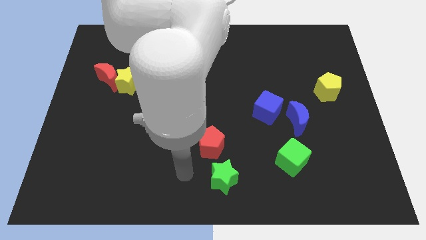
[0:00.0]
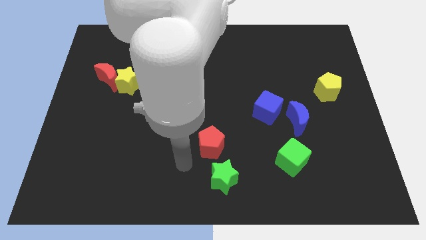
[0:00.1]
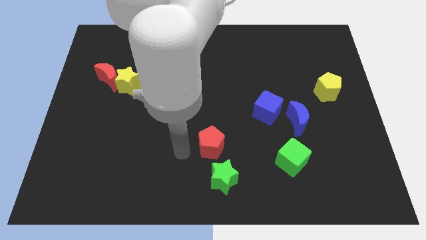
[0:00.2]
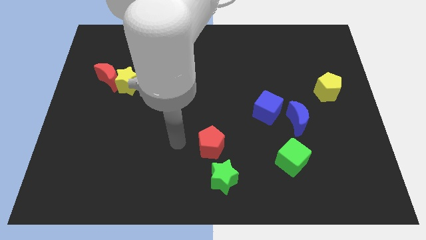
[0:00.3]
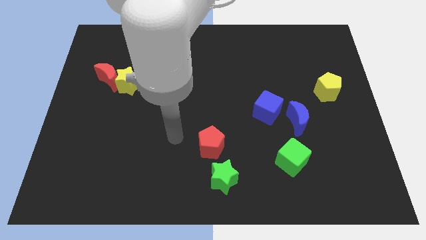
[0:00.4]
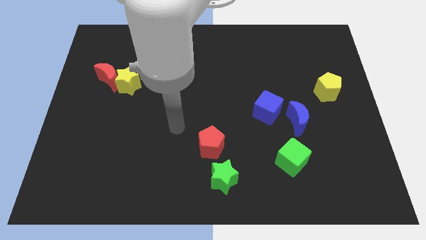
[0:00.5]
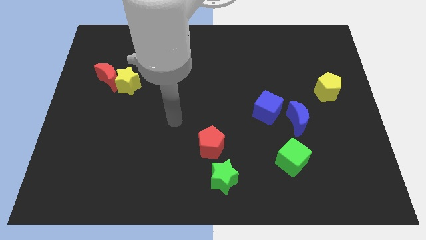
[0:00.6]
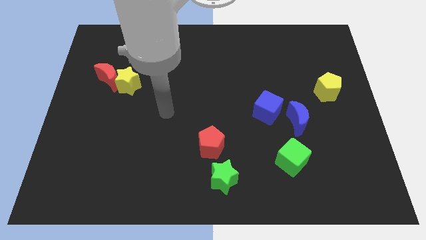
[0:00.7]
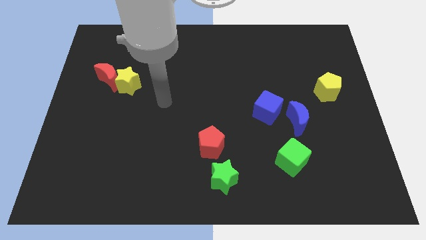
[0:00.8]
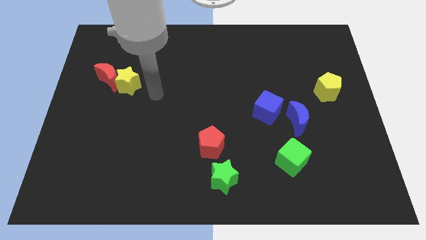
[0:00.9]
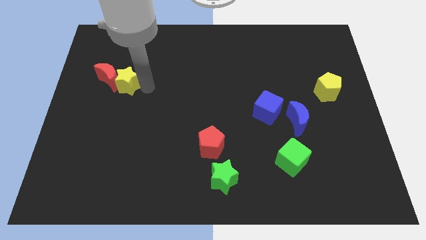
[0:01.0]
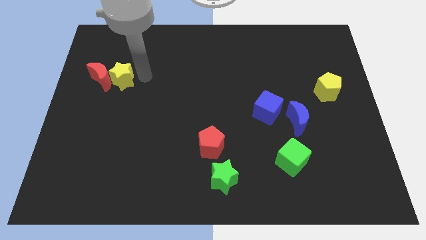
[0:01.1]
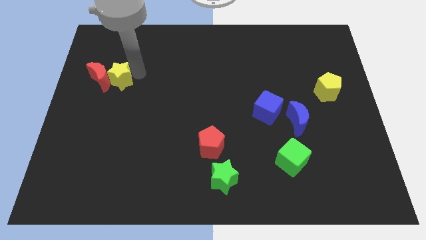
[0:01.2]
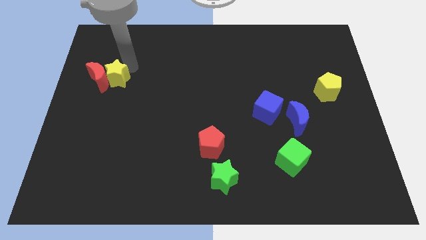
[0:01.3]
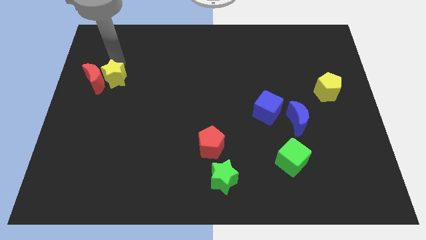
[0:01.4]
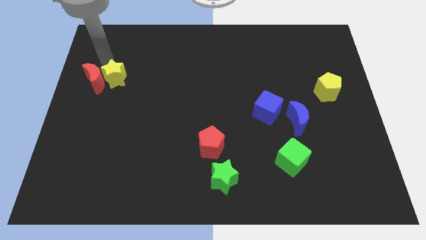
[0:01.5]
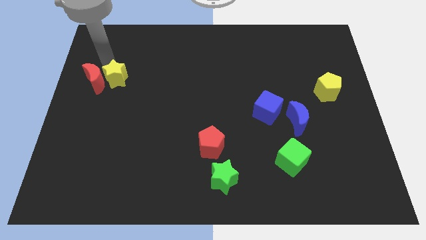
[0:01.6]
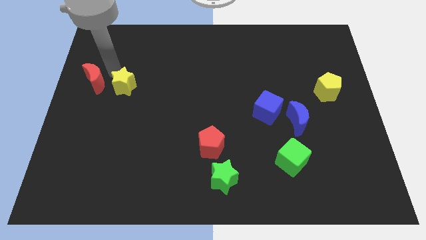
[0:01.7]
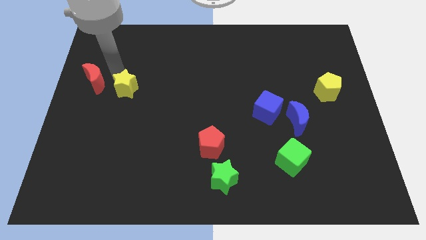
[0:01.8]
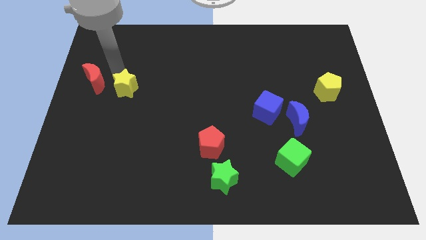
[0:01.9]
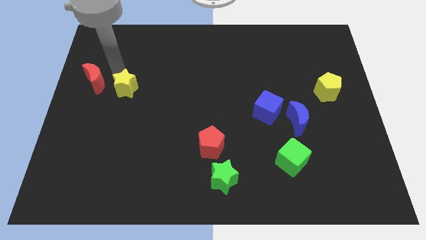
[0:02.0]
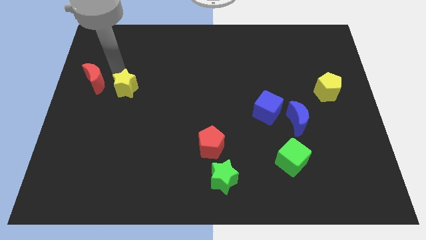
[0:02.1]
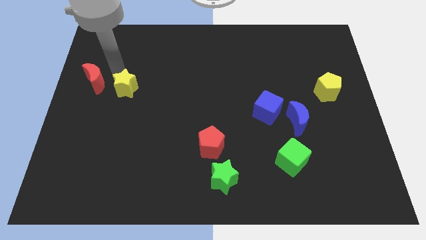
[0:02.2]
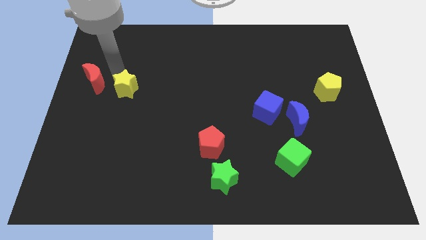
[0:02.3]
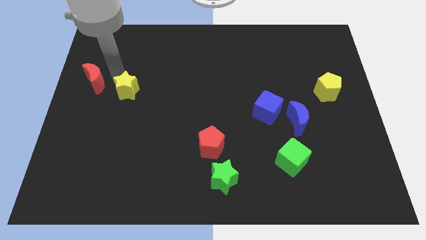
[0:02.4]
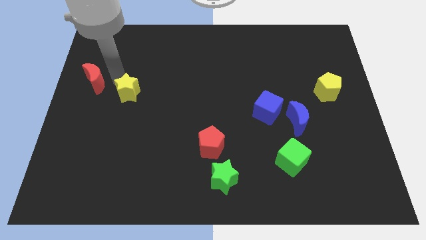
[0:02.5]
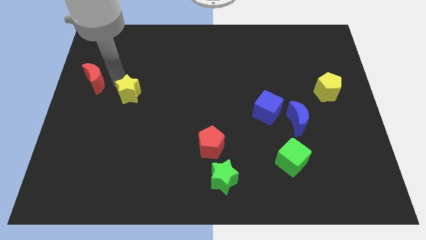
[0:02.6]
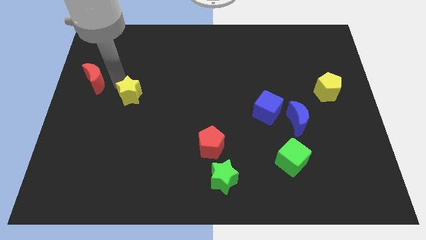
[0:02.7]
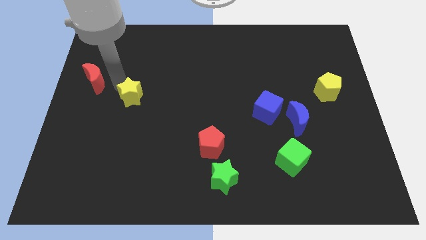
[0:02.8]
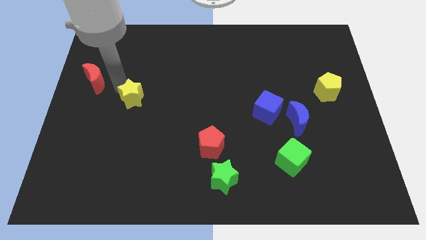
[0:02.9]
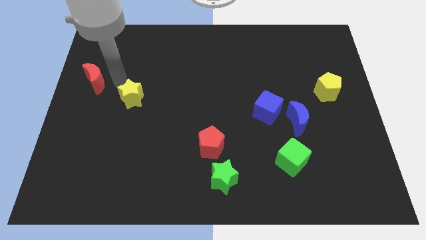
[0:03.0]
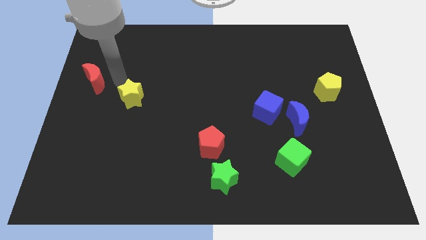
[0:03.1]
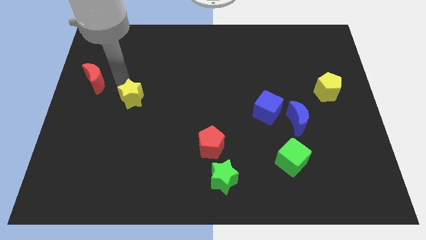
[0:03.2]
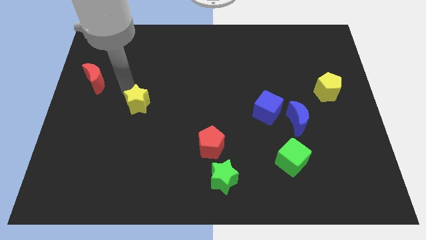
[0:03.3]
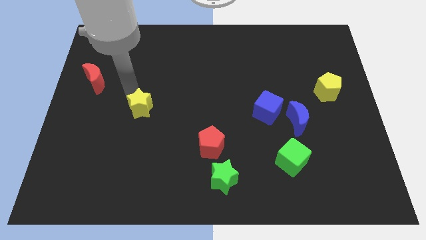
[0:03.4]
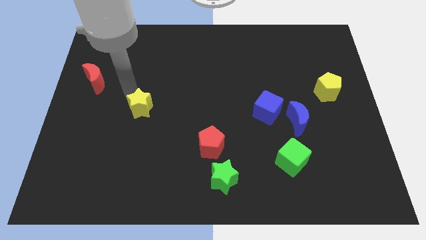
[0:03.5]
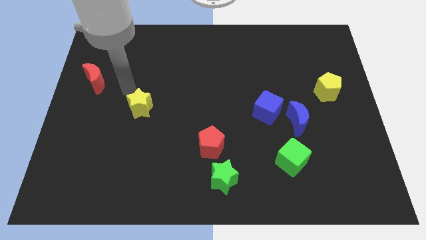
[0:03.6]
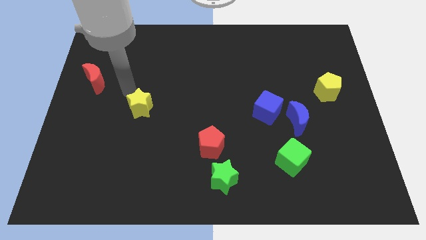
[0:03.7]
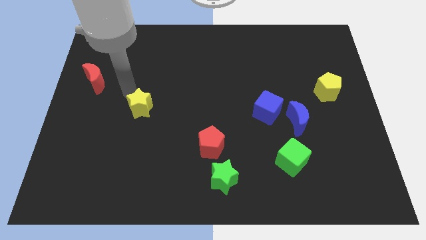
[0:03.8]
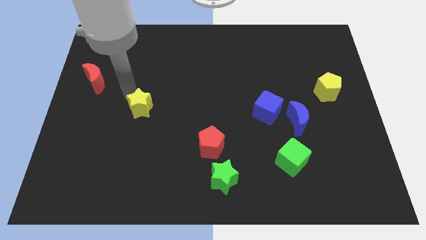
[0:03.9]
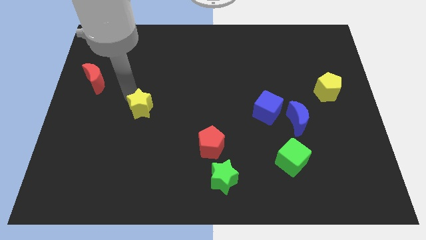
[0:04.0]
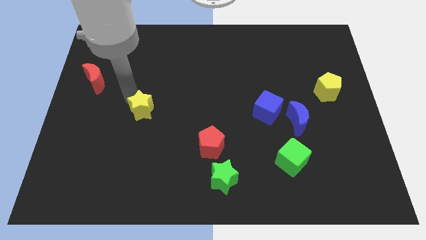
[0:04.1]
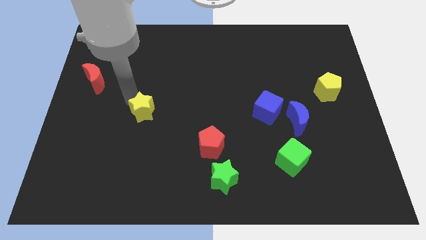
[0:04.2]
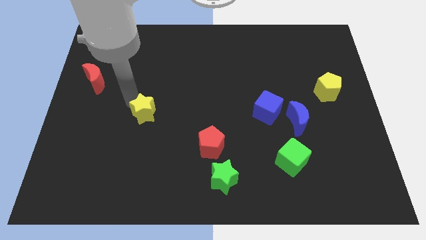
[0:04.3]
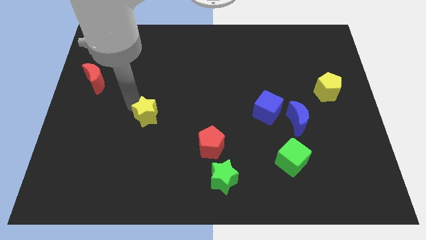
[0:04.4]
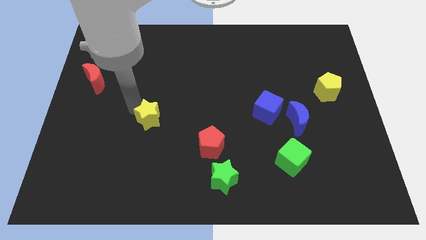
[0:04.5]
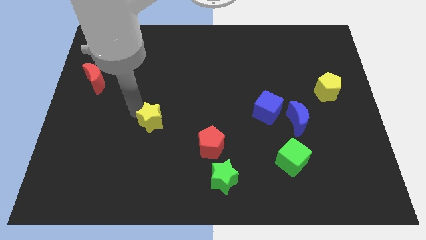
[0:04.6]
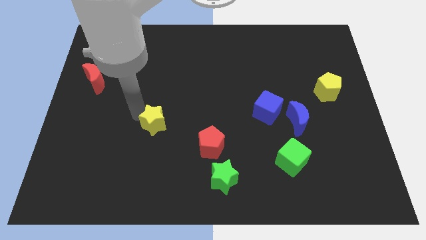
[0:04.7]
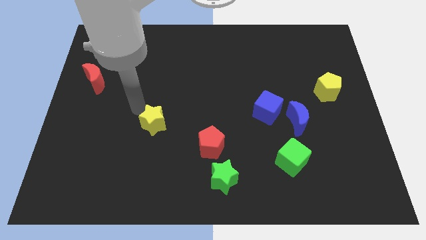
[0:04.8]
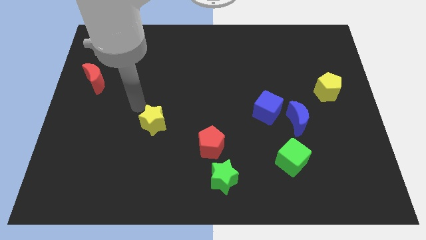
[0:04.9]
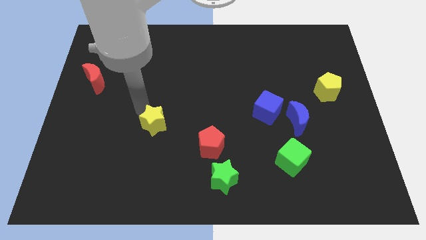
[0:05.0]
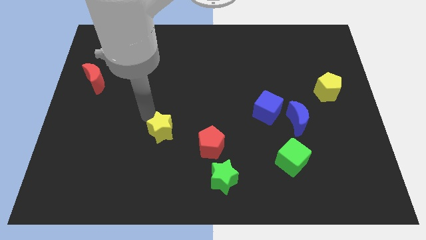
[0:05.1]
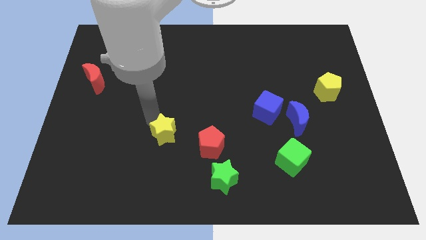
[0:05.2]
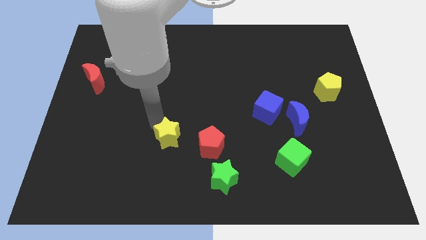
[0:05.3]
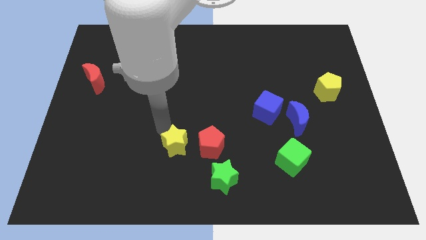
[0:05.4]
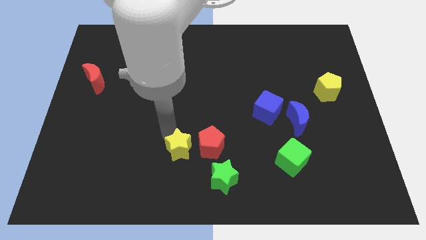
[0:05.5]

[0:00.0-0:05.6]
slide the yellow star diagonally down and to the left of the red pentagon

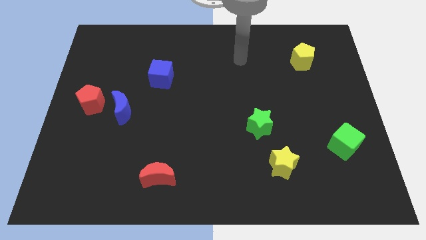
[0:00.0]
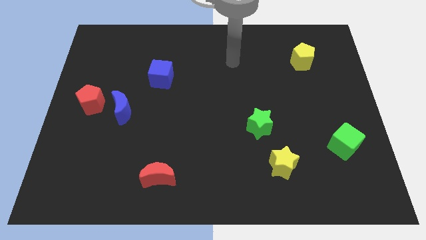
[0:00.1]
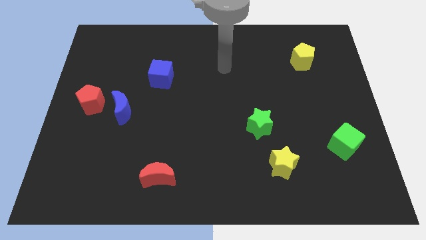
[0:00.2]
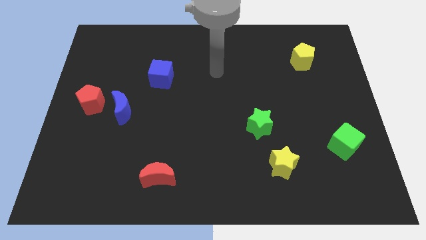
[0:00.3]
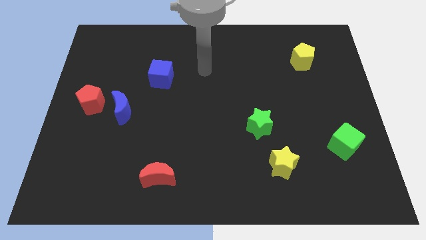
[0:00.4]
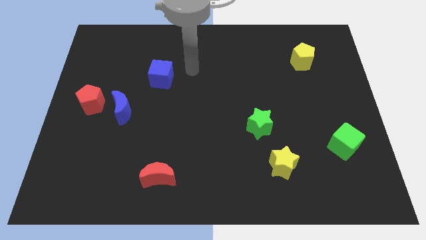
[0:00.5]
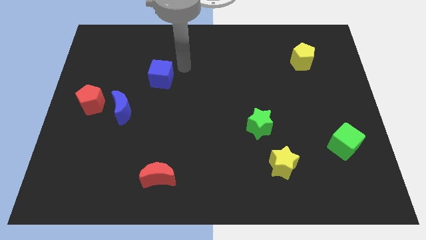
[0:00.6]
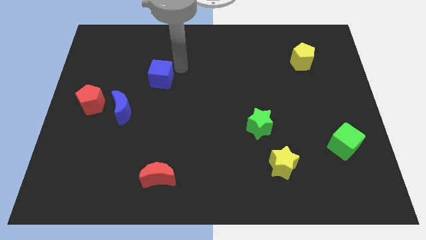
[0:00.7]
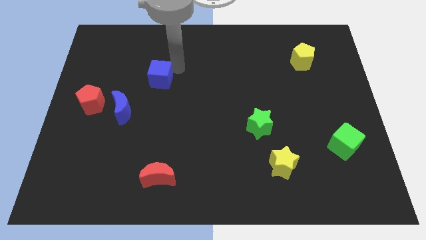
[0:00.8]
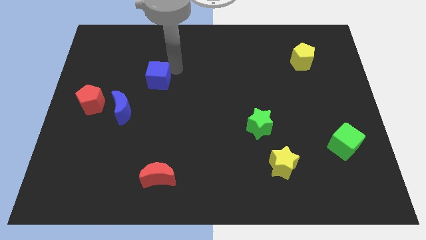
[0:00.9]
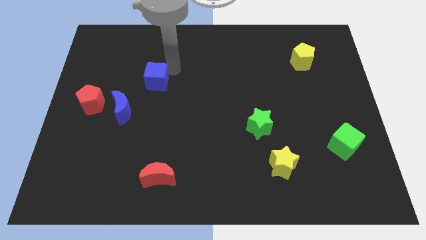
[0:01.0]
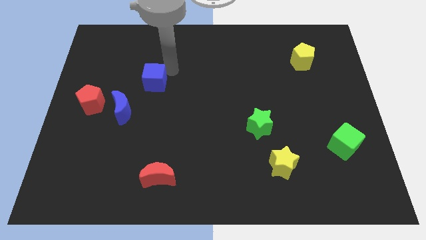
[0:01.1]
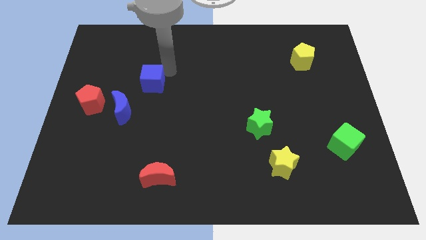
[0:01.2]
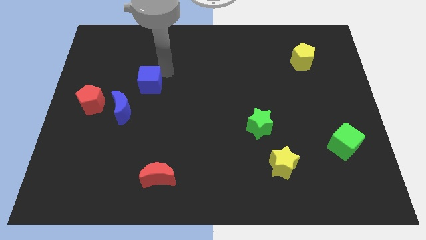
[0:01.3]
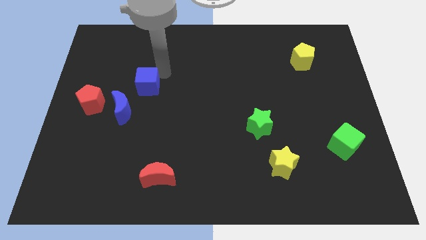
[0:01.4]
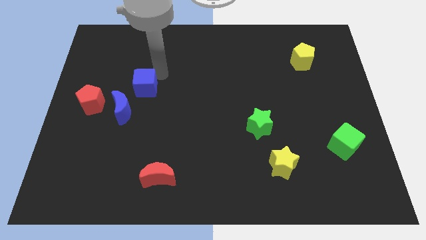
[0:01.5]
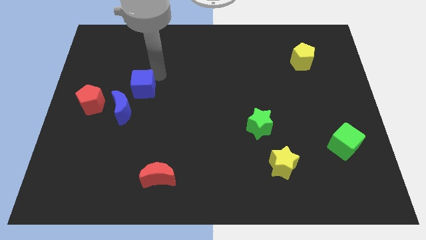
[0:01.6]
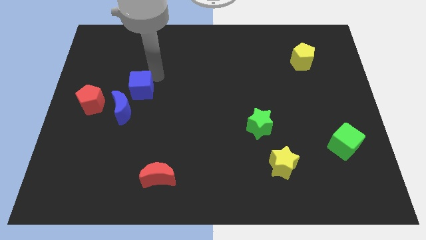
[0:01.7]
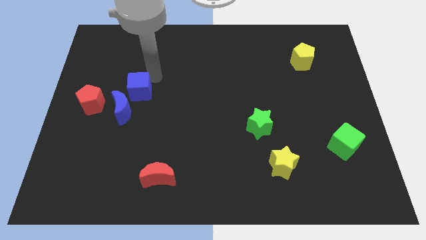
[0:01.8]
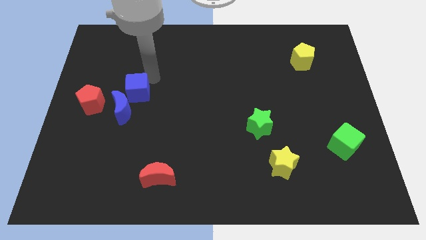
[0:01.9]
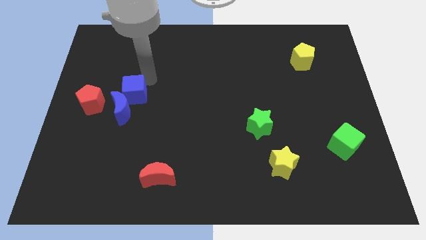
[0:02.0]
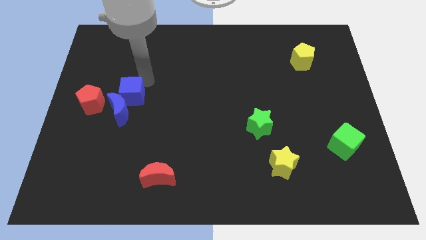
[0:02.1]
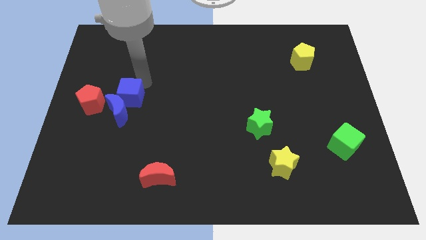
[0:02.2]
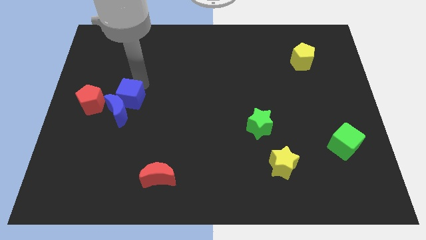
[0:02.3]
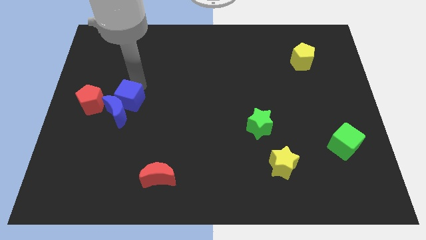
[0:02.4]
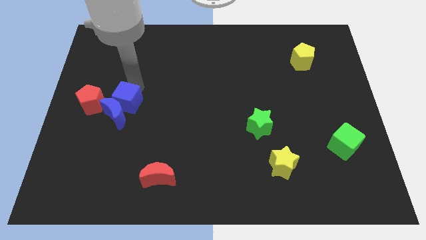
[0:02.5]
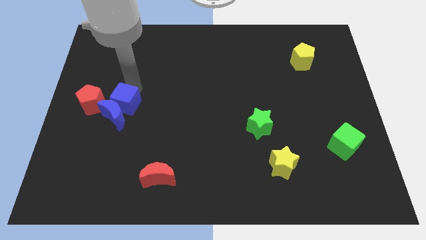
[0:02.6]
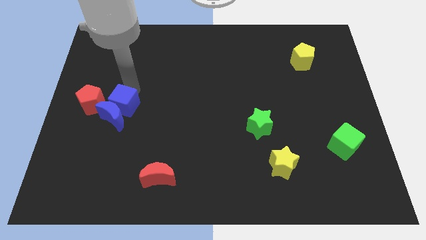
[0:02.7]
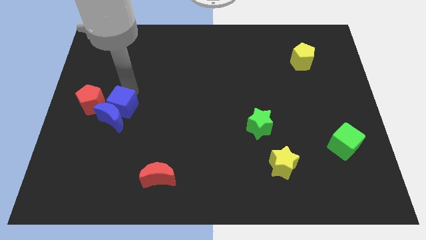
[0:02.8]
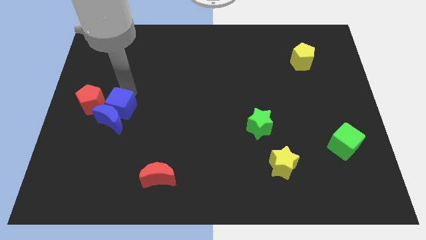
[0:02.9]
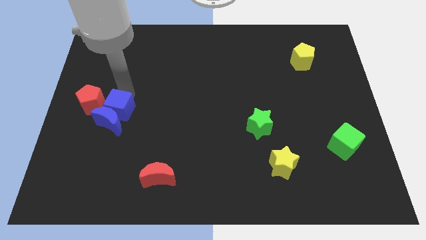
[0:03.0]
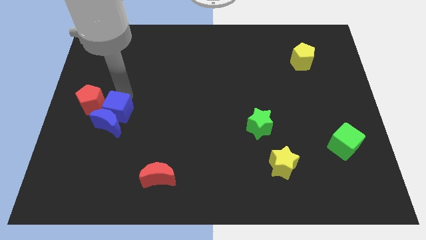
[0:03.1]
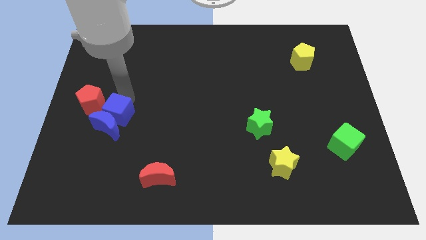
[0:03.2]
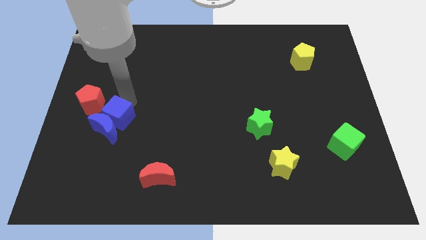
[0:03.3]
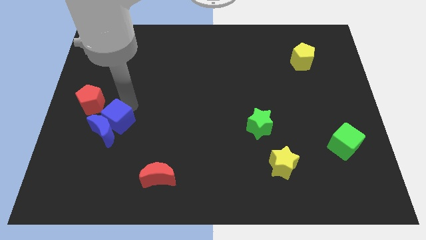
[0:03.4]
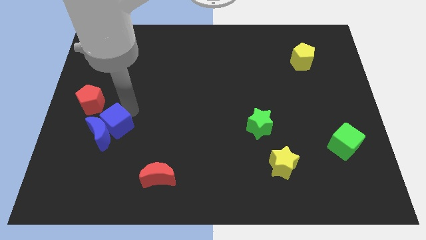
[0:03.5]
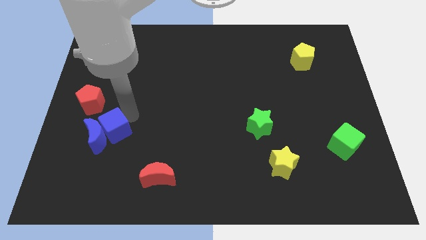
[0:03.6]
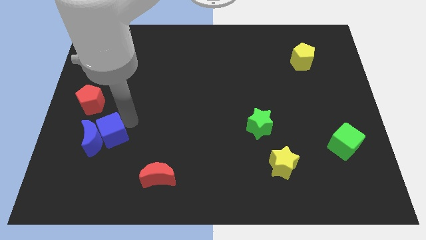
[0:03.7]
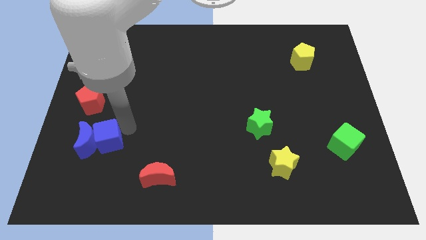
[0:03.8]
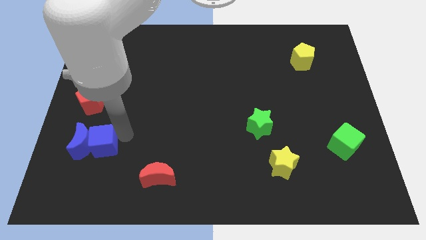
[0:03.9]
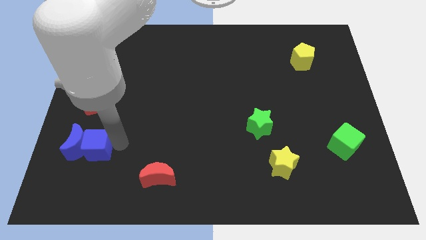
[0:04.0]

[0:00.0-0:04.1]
slide the blue cube to the bottom of the red pentagon
